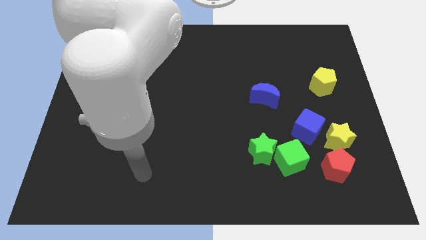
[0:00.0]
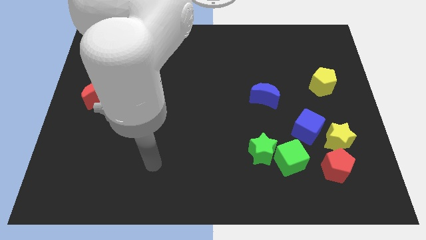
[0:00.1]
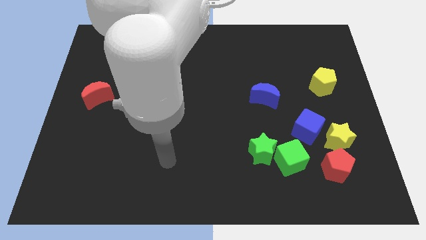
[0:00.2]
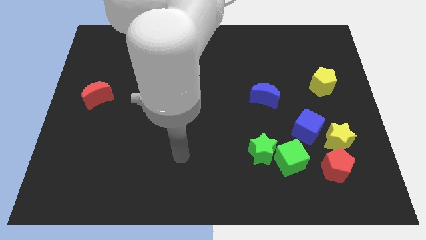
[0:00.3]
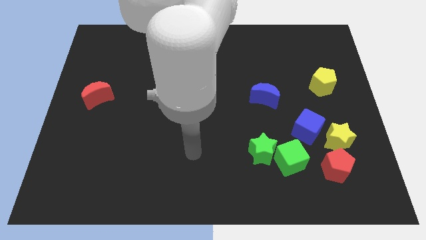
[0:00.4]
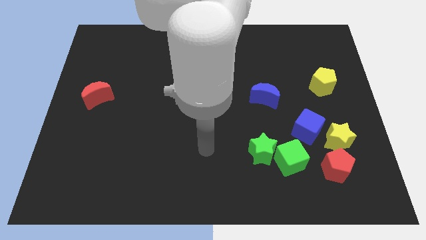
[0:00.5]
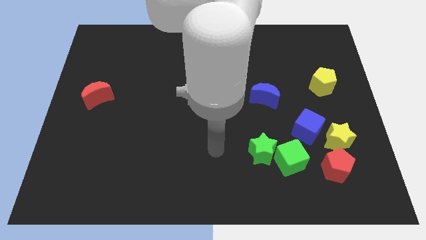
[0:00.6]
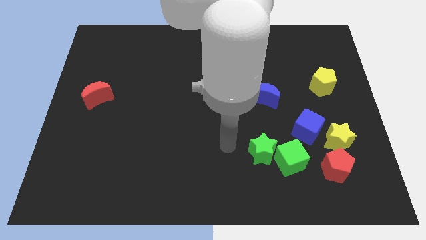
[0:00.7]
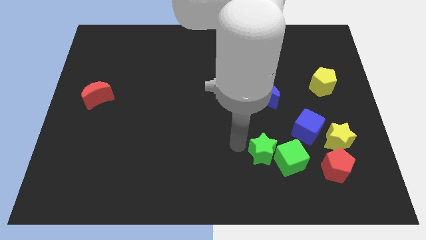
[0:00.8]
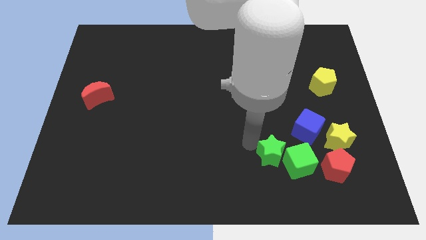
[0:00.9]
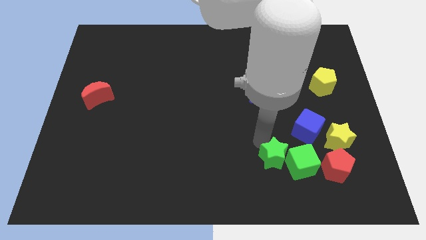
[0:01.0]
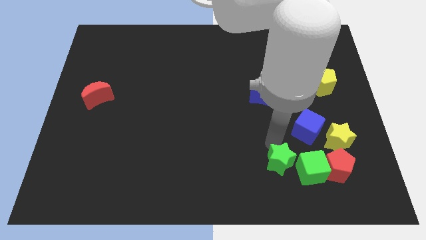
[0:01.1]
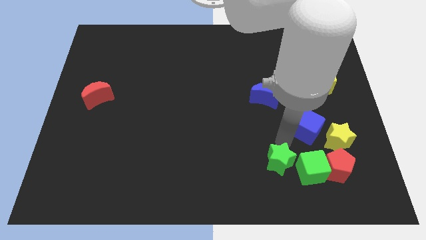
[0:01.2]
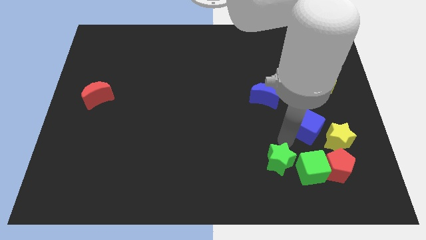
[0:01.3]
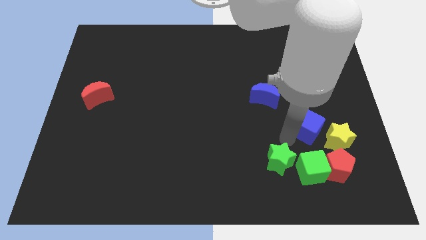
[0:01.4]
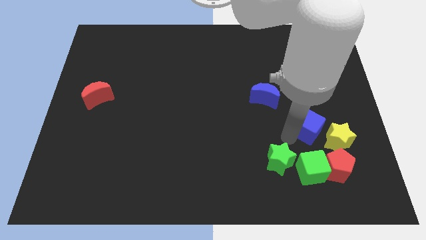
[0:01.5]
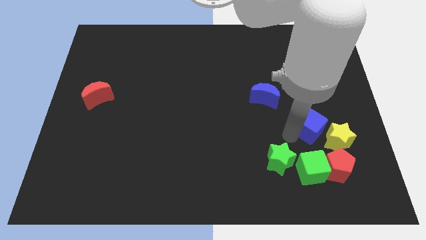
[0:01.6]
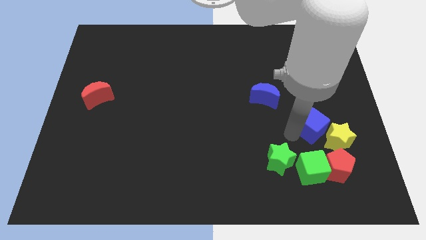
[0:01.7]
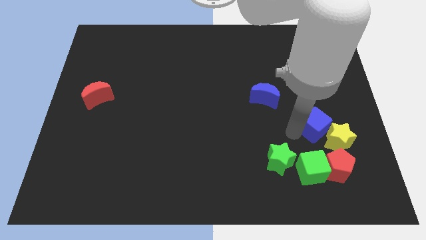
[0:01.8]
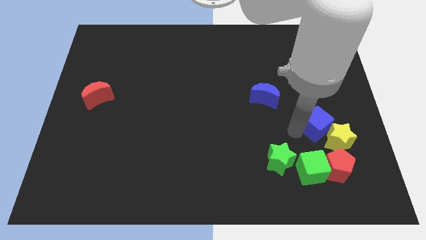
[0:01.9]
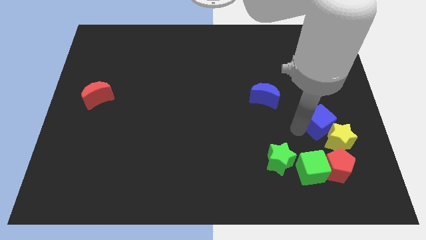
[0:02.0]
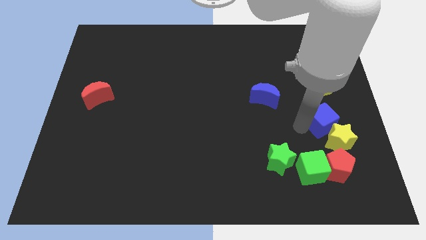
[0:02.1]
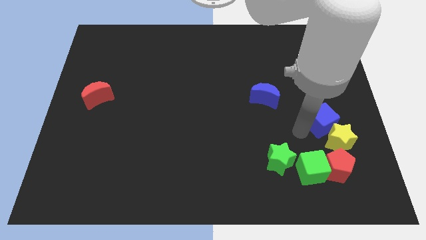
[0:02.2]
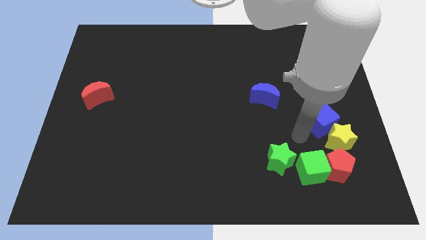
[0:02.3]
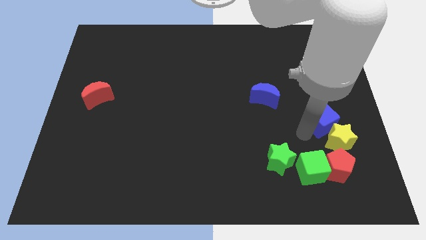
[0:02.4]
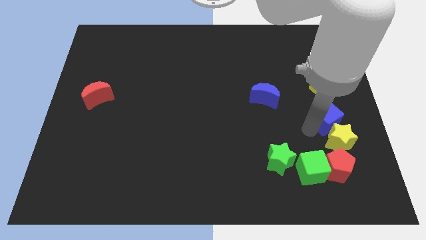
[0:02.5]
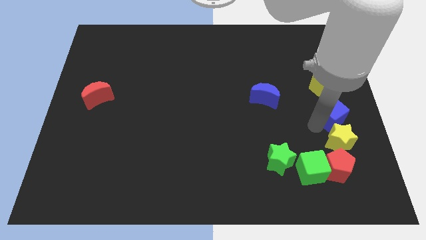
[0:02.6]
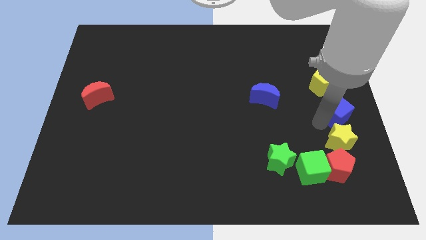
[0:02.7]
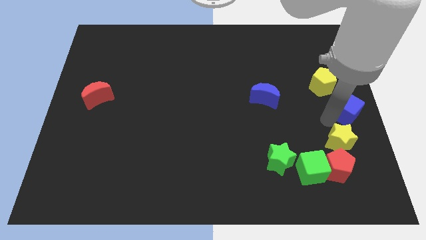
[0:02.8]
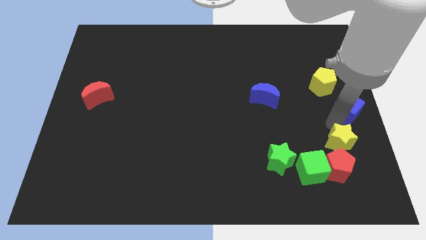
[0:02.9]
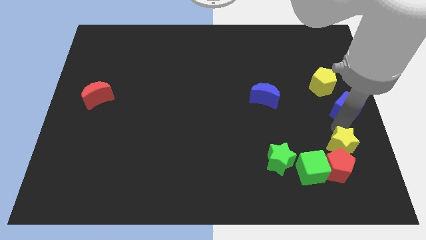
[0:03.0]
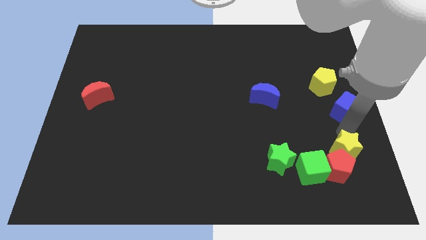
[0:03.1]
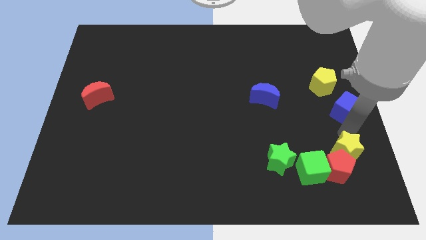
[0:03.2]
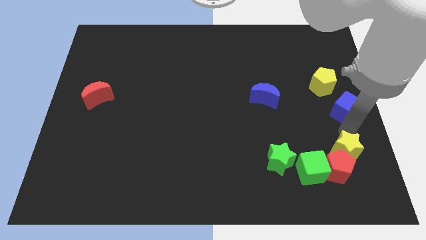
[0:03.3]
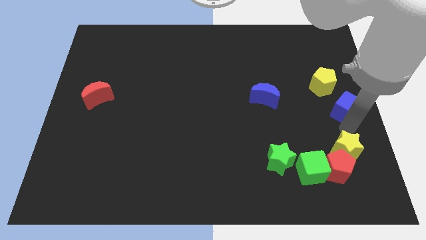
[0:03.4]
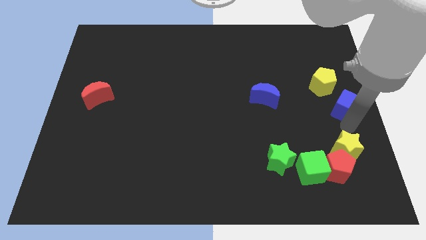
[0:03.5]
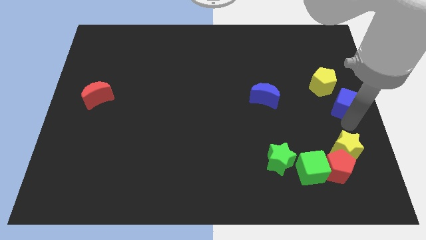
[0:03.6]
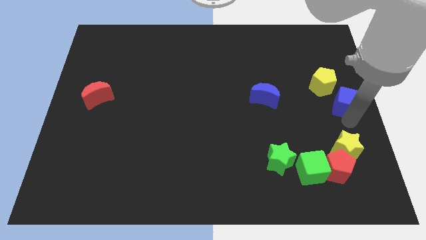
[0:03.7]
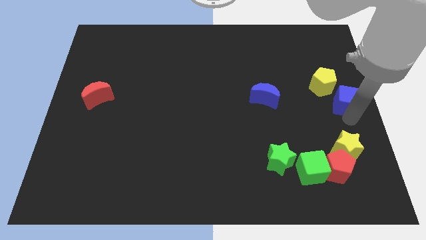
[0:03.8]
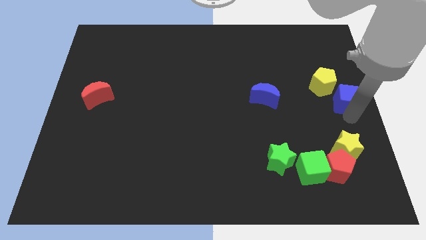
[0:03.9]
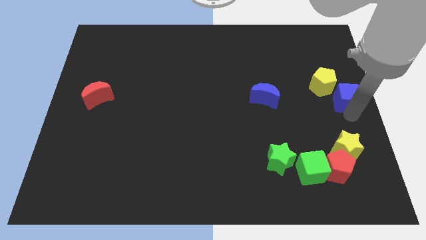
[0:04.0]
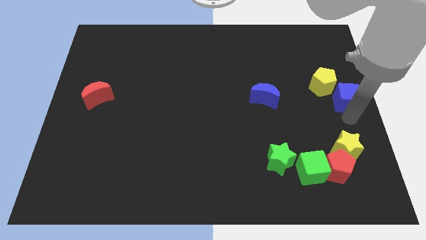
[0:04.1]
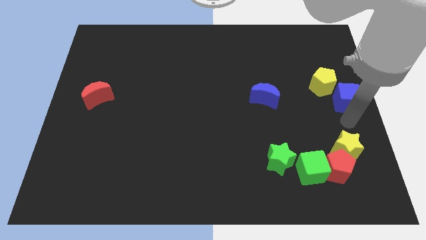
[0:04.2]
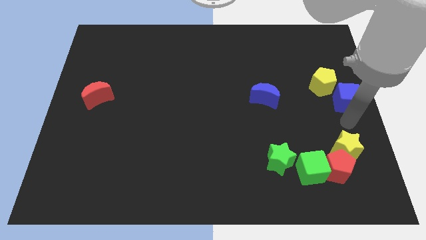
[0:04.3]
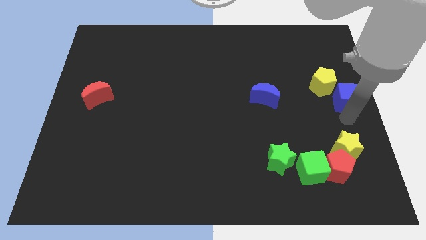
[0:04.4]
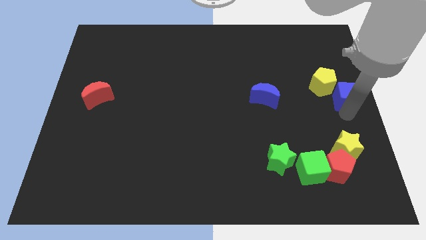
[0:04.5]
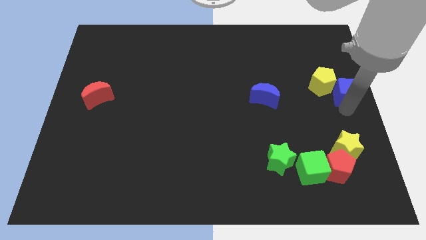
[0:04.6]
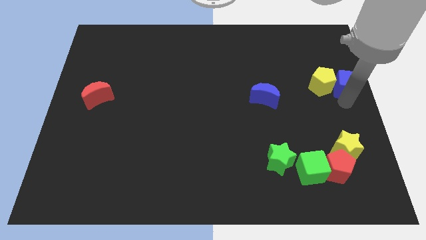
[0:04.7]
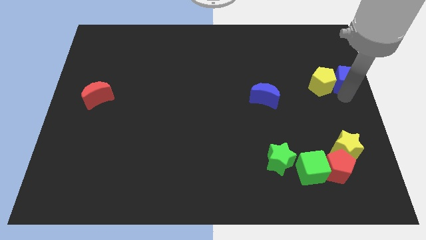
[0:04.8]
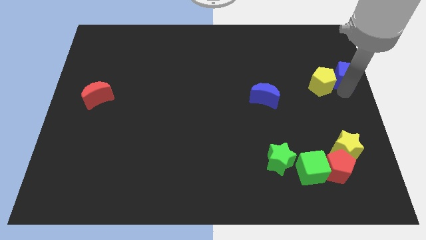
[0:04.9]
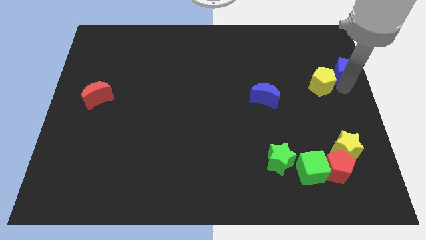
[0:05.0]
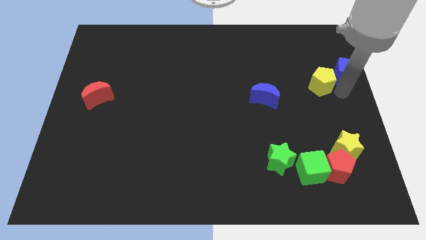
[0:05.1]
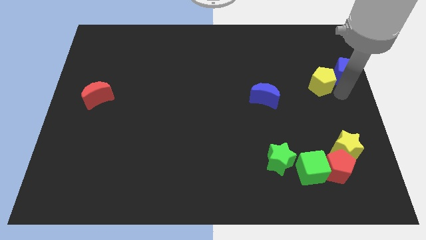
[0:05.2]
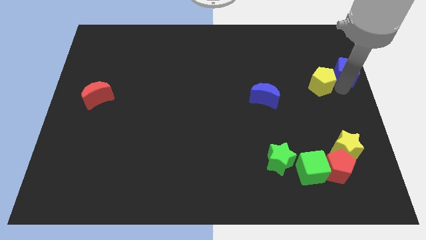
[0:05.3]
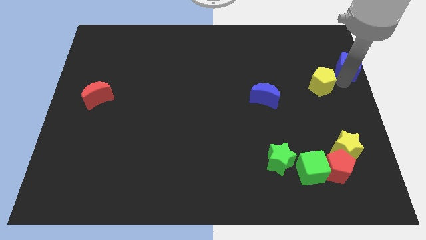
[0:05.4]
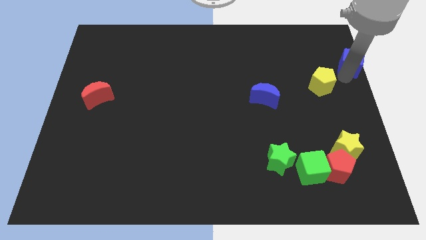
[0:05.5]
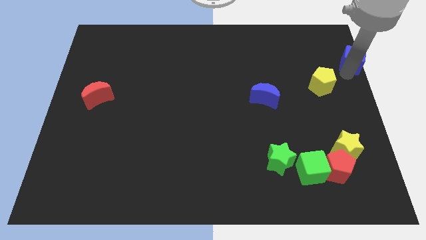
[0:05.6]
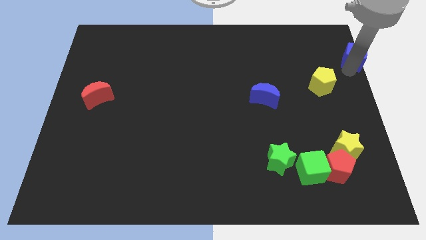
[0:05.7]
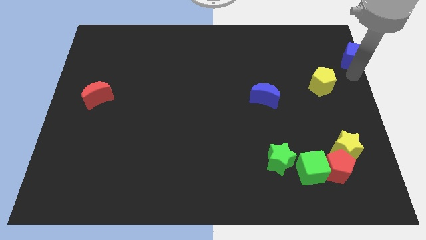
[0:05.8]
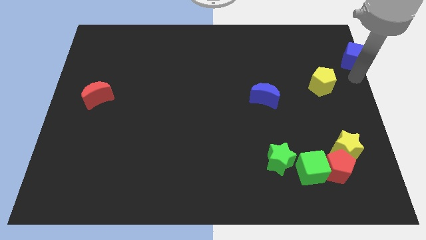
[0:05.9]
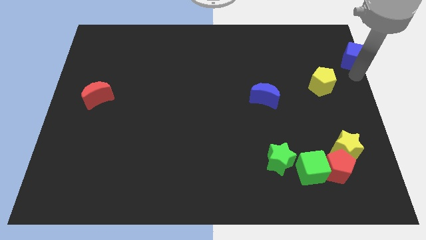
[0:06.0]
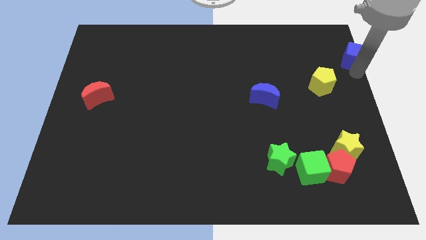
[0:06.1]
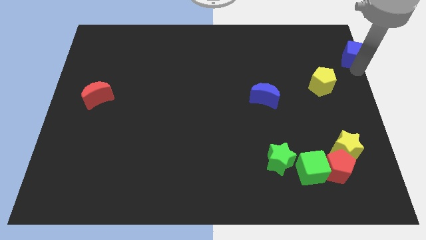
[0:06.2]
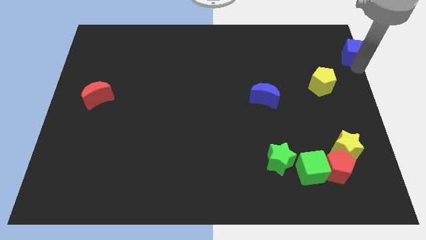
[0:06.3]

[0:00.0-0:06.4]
move the blue cube to the top right

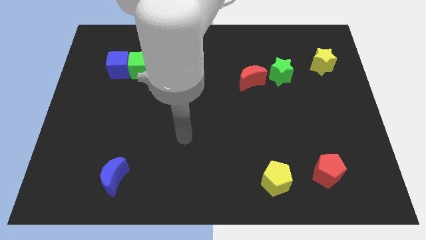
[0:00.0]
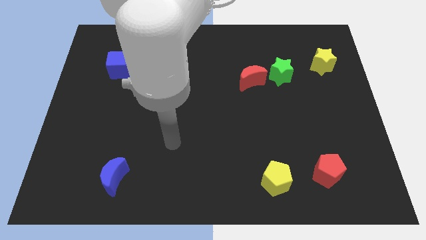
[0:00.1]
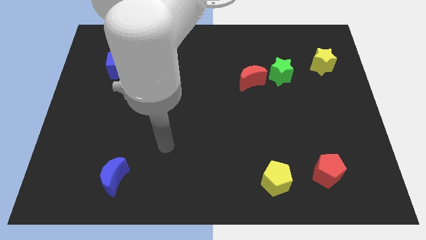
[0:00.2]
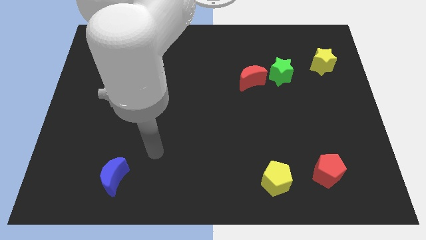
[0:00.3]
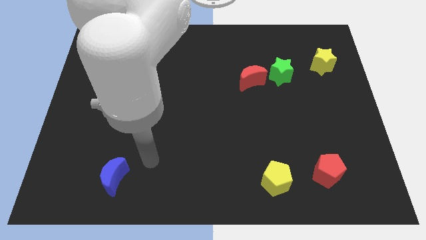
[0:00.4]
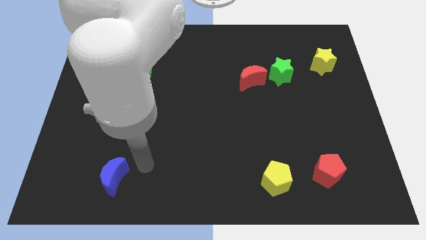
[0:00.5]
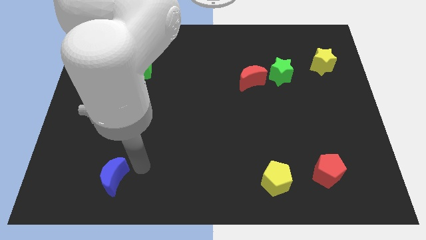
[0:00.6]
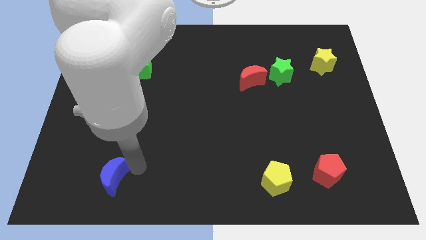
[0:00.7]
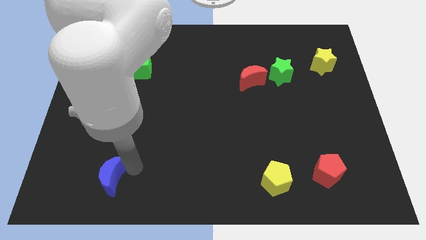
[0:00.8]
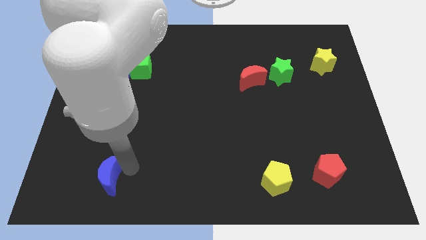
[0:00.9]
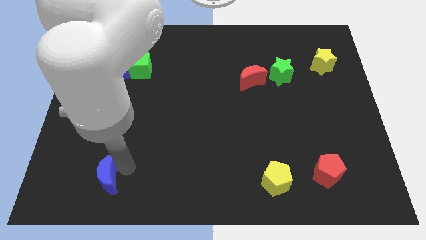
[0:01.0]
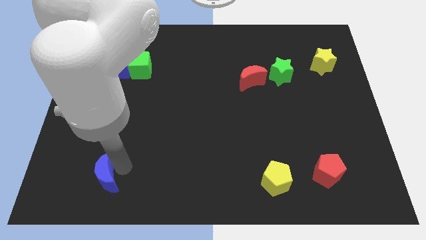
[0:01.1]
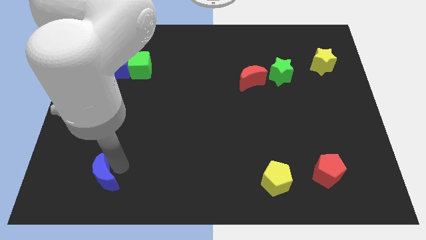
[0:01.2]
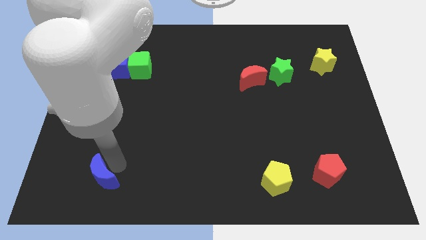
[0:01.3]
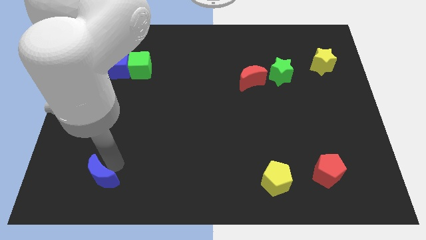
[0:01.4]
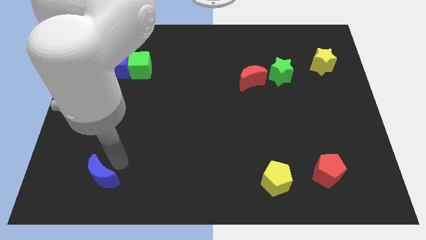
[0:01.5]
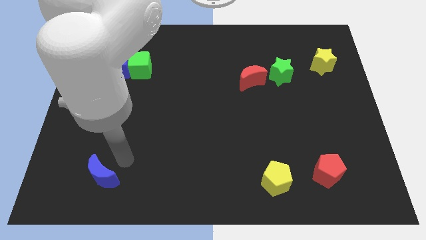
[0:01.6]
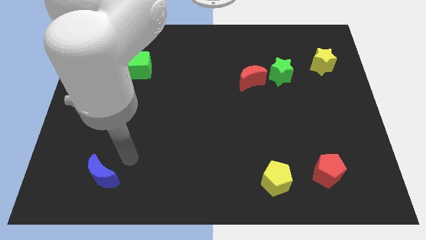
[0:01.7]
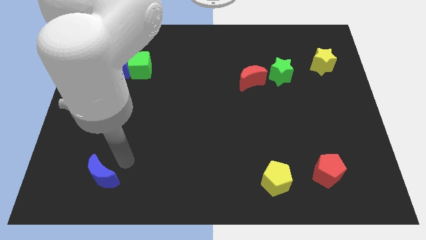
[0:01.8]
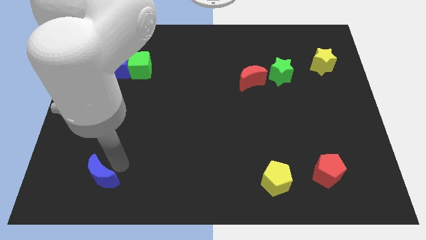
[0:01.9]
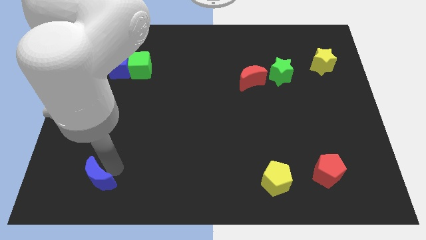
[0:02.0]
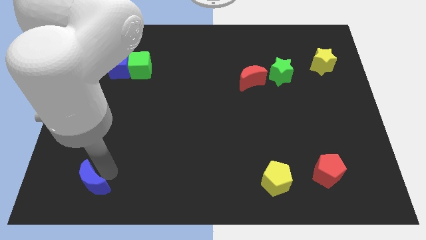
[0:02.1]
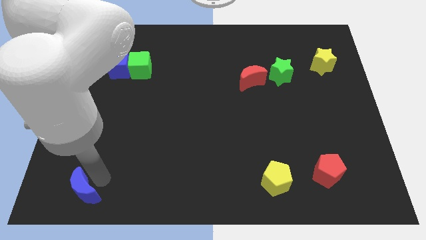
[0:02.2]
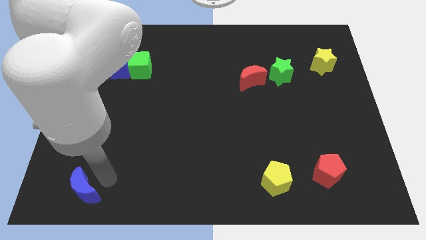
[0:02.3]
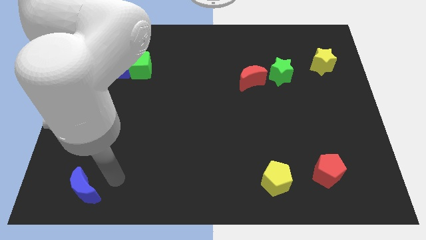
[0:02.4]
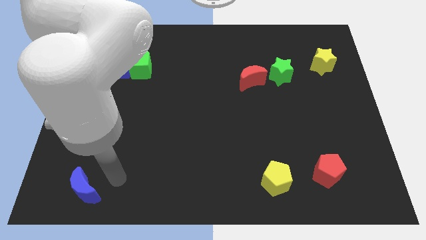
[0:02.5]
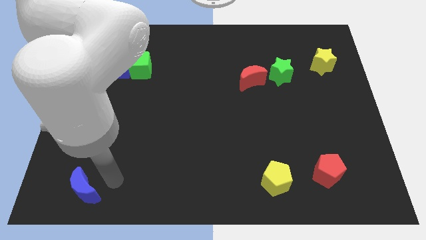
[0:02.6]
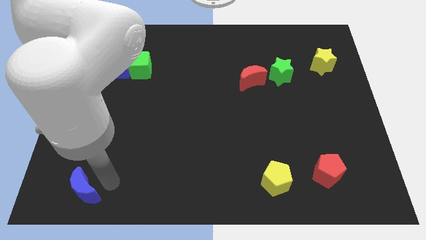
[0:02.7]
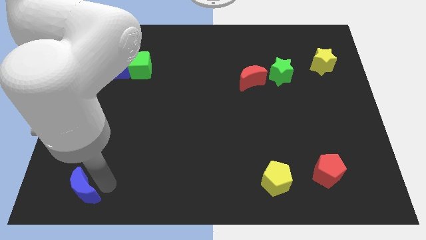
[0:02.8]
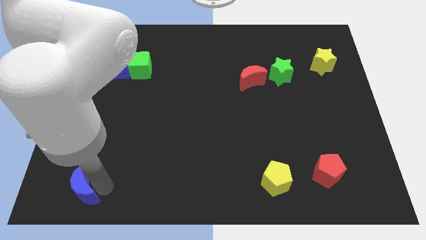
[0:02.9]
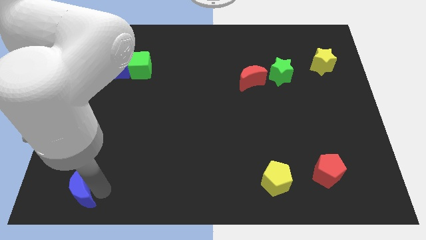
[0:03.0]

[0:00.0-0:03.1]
move the blue moon to the bottom left of the board
